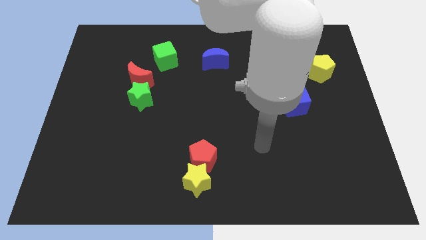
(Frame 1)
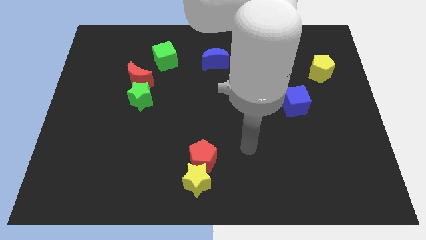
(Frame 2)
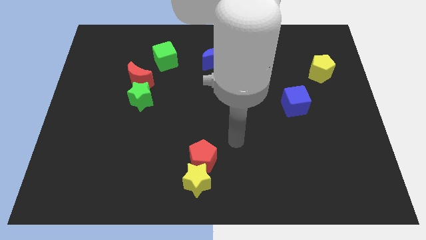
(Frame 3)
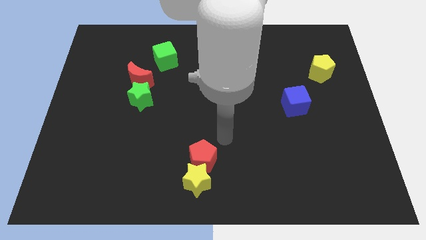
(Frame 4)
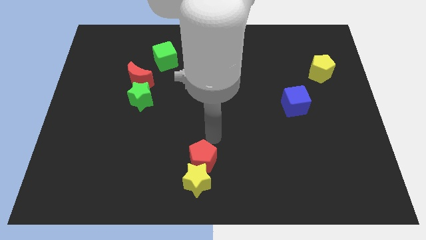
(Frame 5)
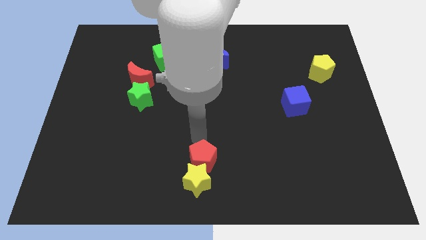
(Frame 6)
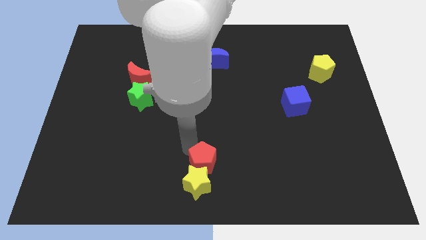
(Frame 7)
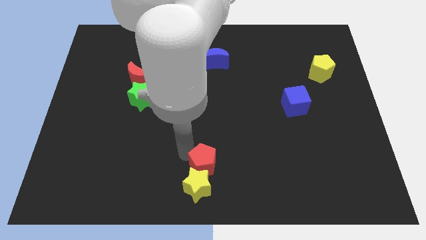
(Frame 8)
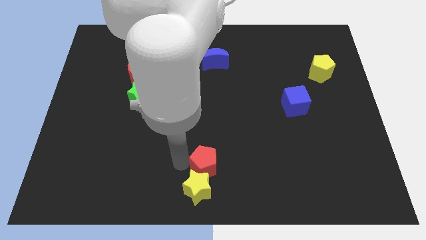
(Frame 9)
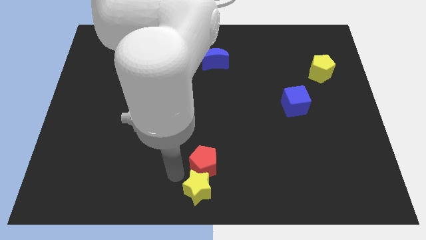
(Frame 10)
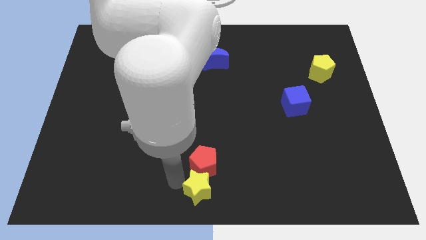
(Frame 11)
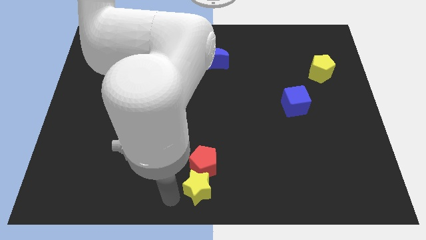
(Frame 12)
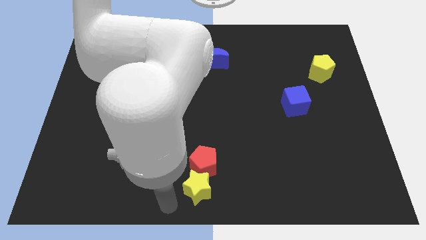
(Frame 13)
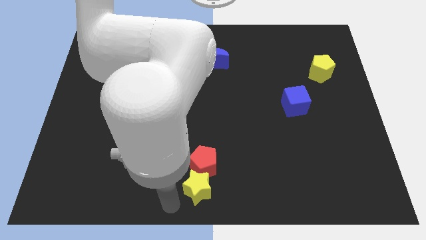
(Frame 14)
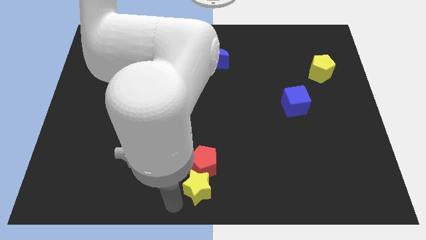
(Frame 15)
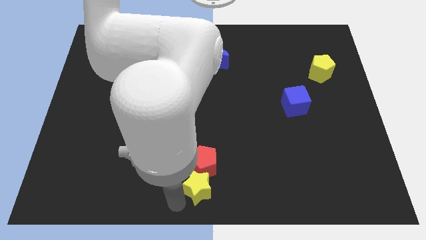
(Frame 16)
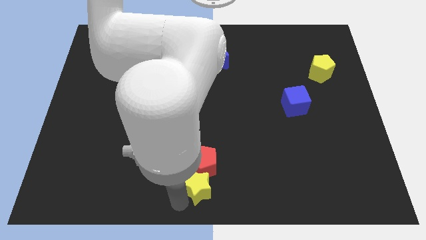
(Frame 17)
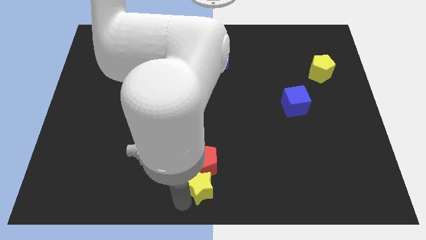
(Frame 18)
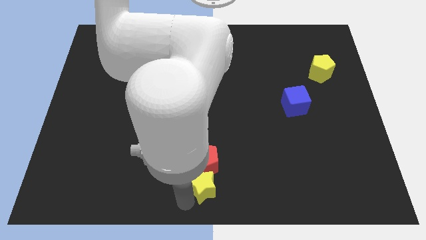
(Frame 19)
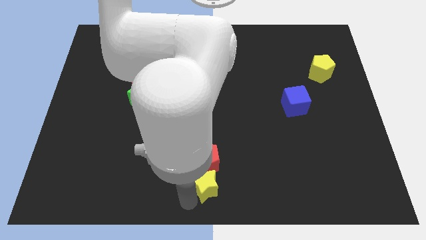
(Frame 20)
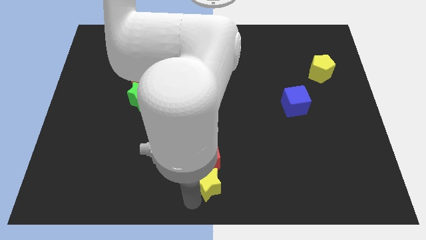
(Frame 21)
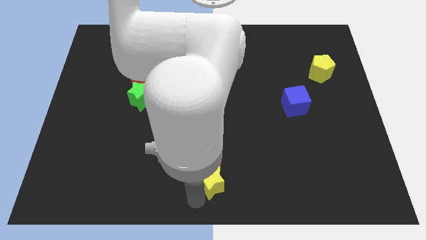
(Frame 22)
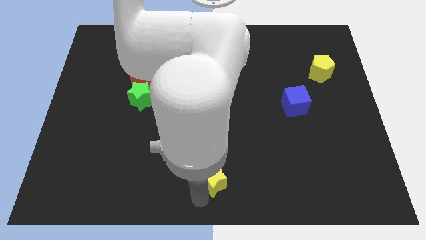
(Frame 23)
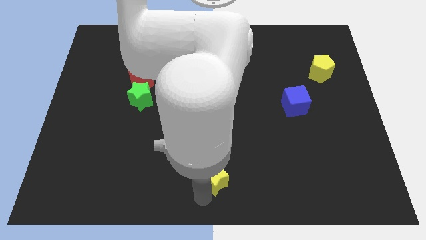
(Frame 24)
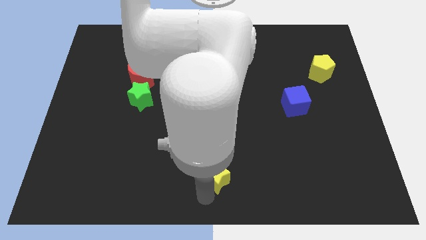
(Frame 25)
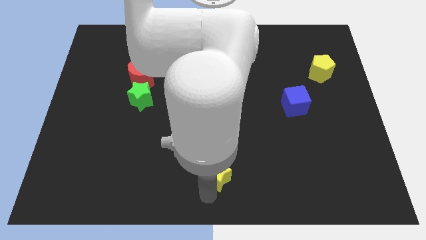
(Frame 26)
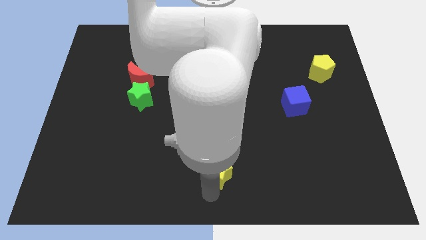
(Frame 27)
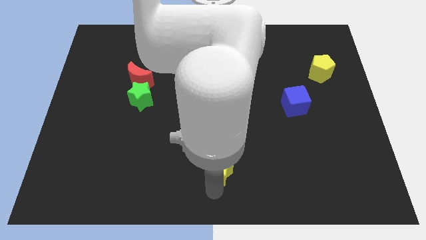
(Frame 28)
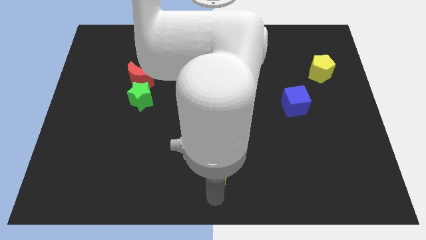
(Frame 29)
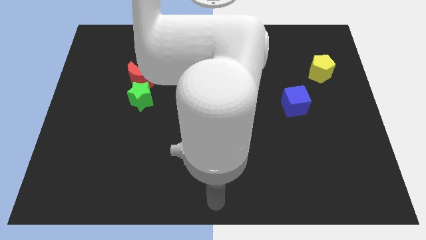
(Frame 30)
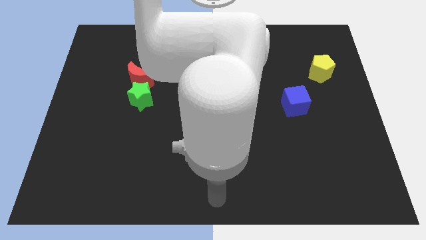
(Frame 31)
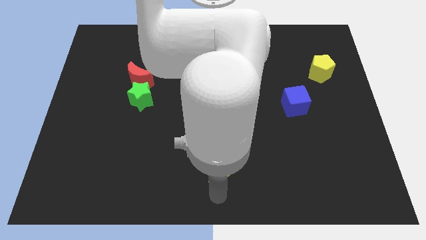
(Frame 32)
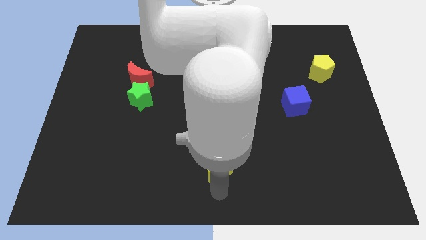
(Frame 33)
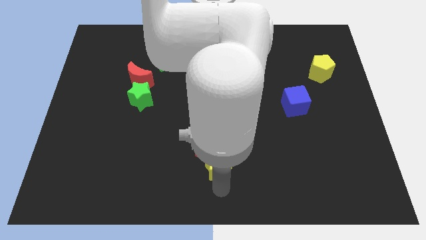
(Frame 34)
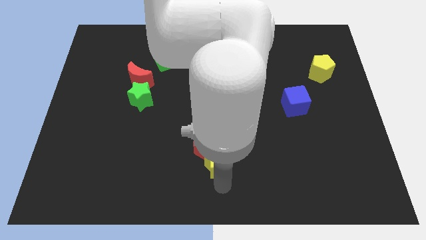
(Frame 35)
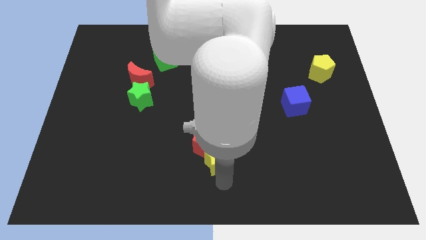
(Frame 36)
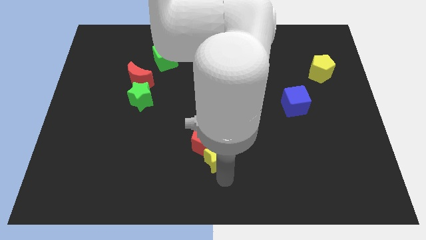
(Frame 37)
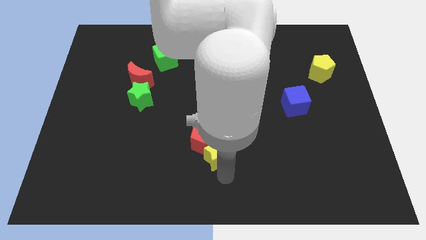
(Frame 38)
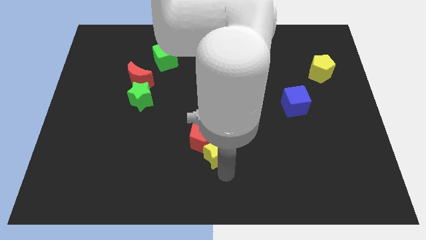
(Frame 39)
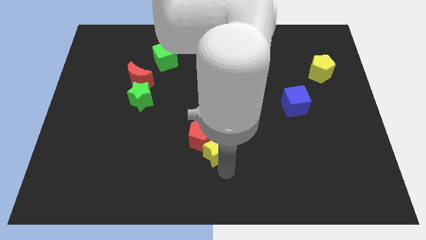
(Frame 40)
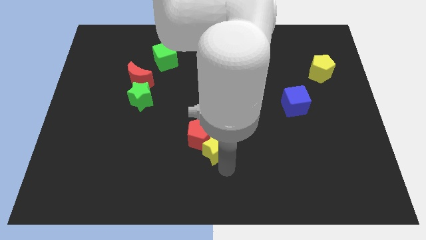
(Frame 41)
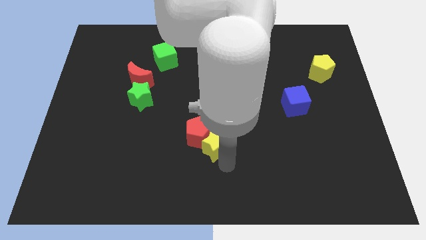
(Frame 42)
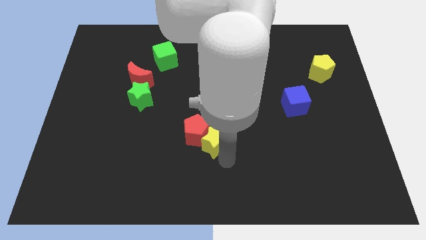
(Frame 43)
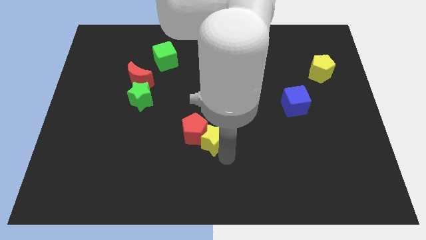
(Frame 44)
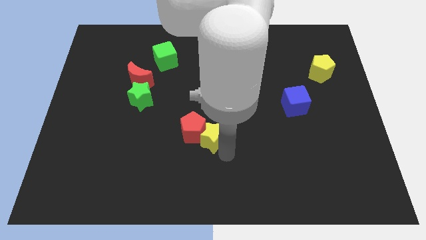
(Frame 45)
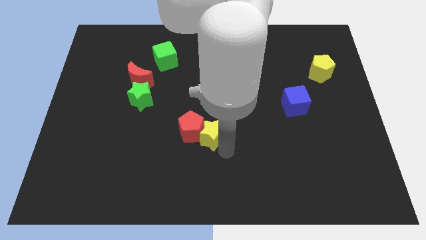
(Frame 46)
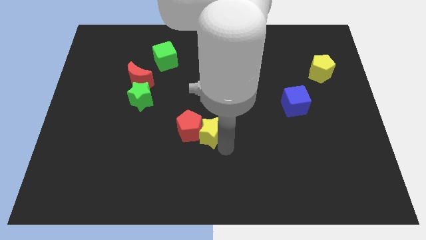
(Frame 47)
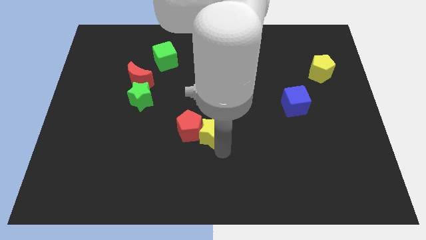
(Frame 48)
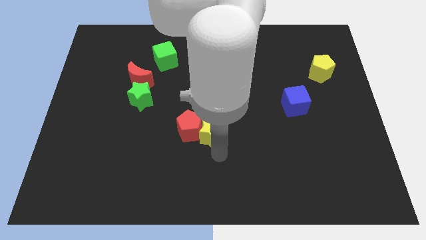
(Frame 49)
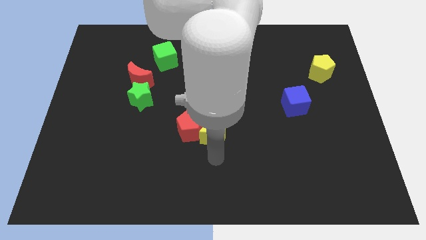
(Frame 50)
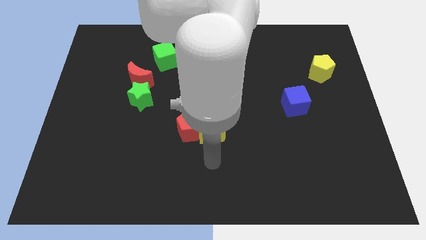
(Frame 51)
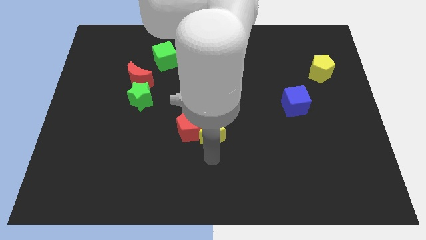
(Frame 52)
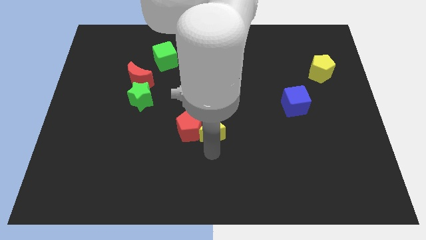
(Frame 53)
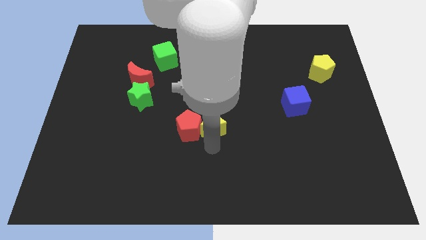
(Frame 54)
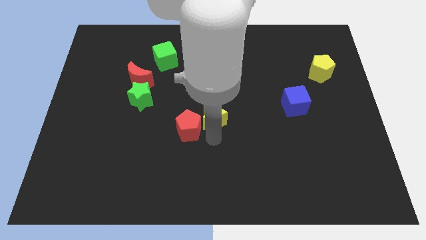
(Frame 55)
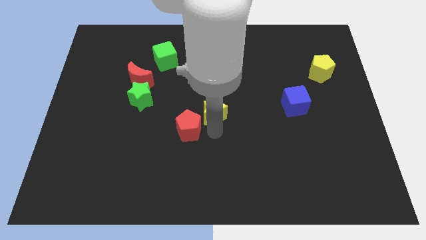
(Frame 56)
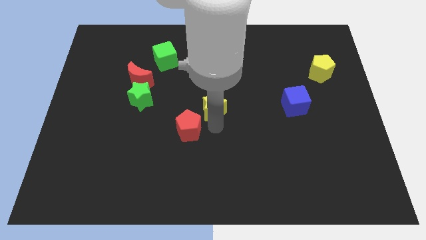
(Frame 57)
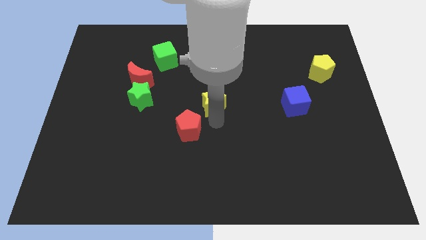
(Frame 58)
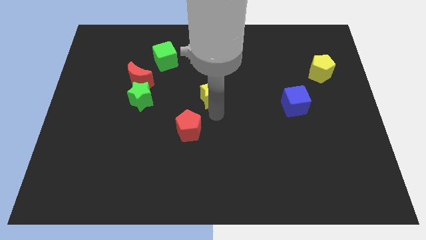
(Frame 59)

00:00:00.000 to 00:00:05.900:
slide the yellow star up

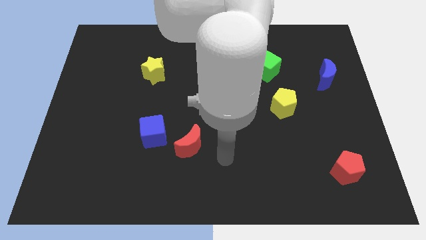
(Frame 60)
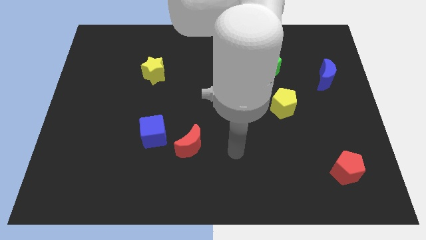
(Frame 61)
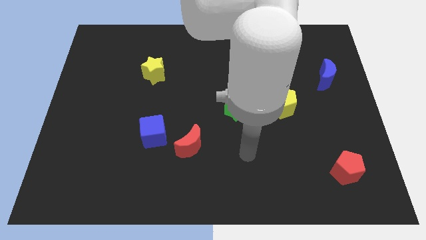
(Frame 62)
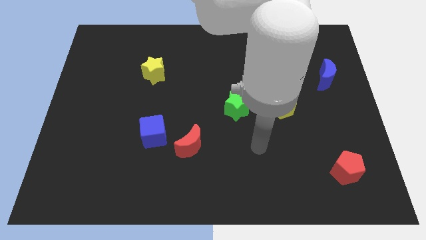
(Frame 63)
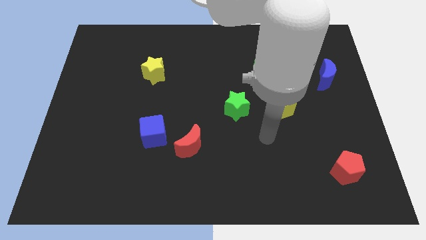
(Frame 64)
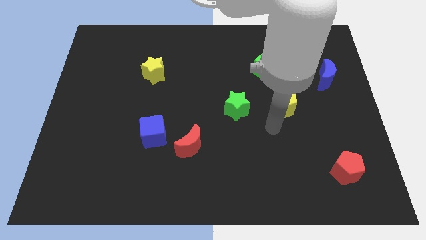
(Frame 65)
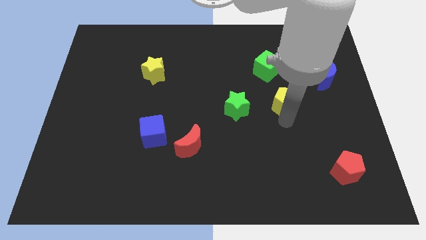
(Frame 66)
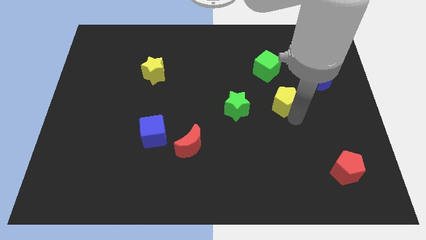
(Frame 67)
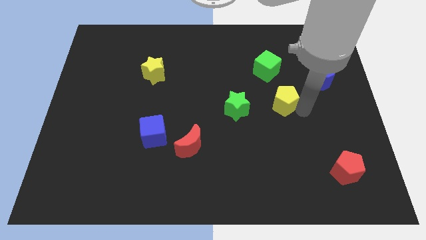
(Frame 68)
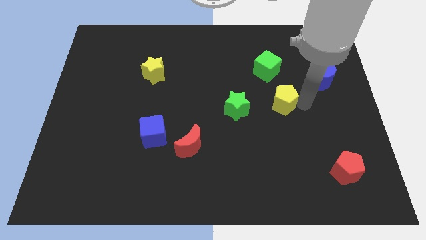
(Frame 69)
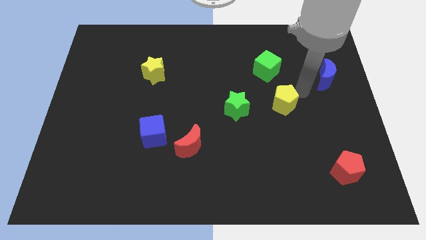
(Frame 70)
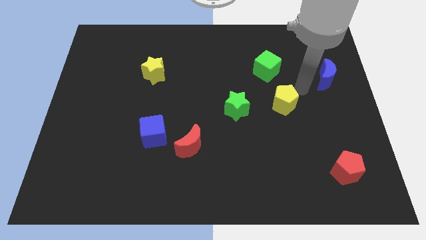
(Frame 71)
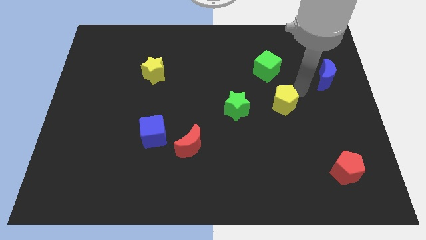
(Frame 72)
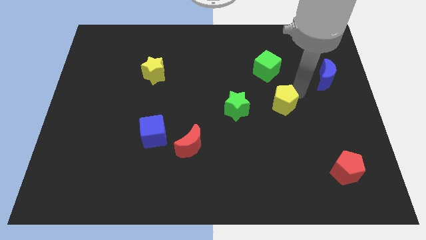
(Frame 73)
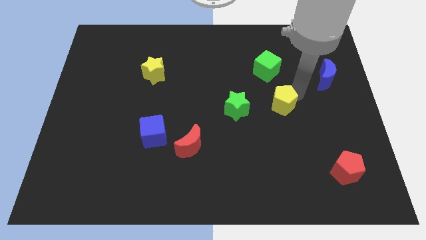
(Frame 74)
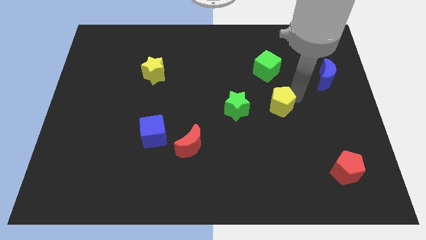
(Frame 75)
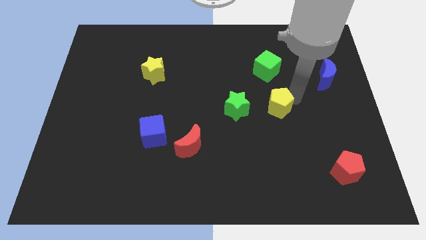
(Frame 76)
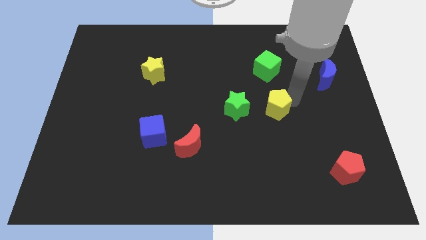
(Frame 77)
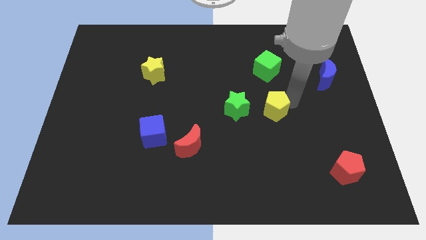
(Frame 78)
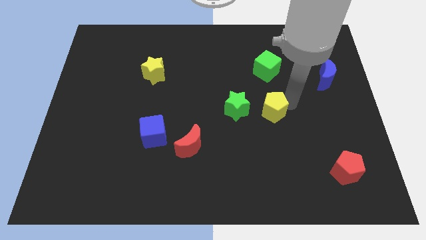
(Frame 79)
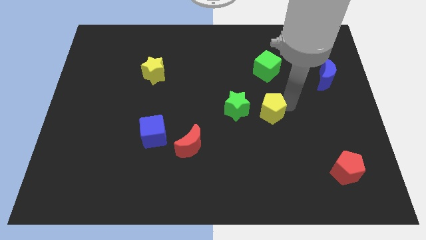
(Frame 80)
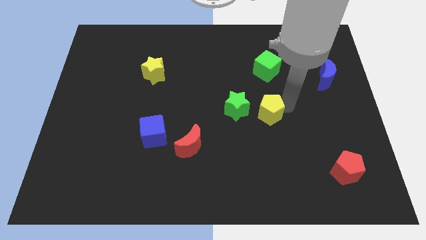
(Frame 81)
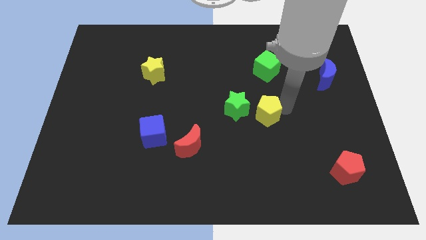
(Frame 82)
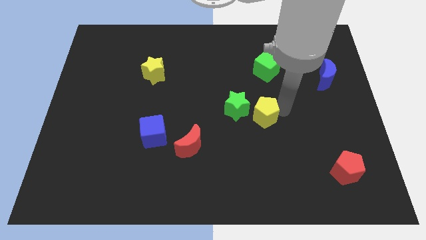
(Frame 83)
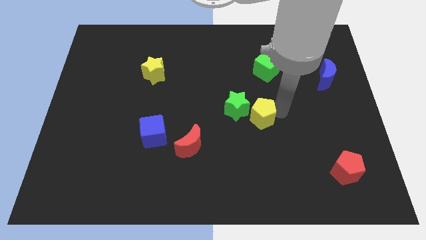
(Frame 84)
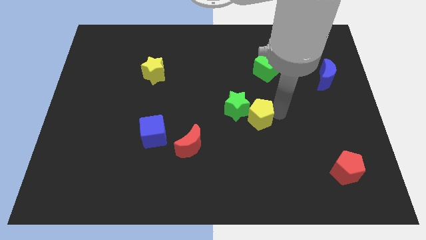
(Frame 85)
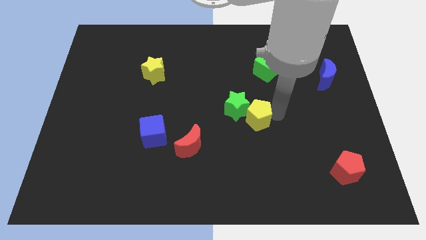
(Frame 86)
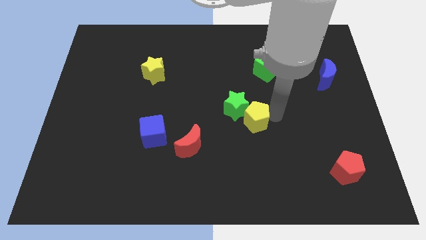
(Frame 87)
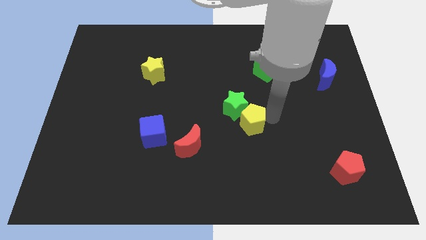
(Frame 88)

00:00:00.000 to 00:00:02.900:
slide the yellow pentagon slightly left
